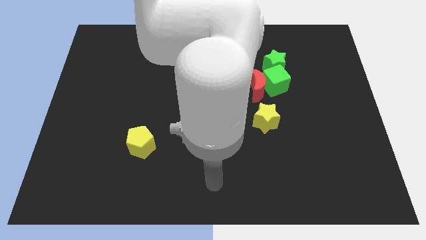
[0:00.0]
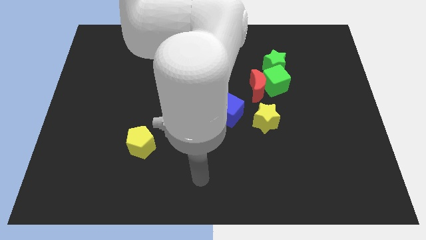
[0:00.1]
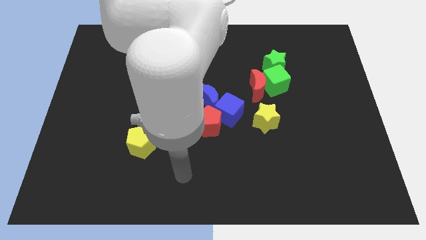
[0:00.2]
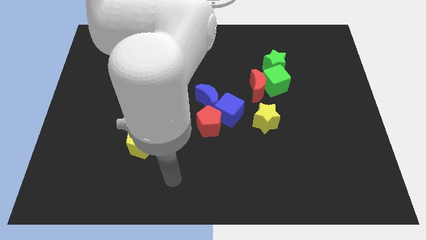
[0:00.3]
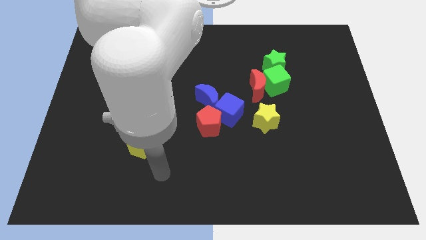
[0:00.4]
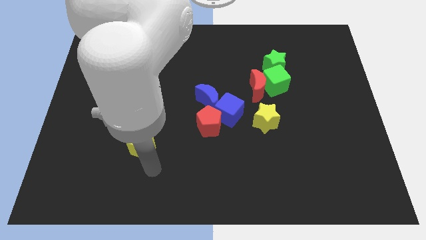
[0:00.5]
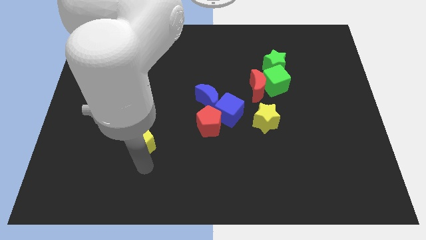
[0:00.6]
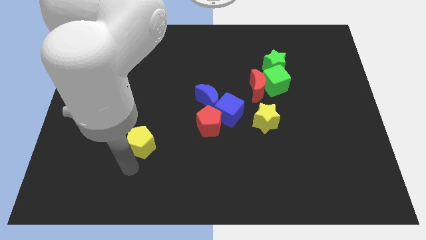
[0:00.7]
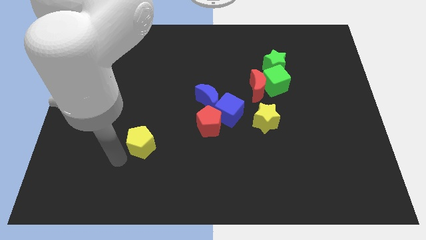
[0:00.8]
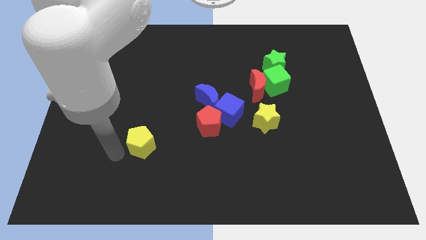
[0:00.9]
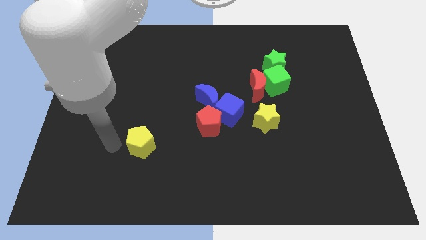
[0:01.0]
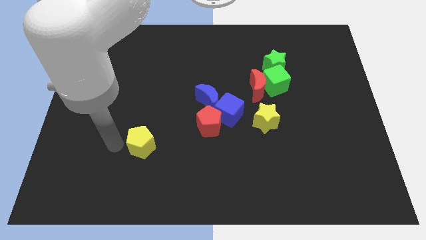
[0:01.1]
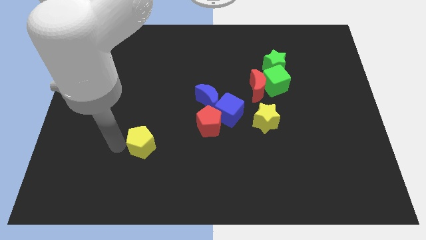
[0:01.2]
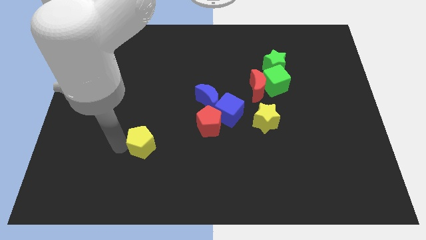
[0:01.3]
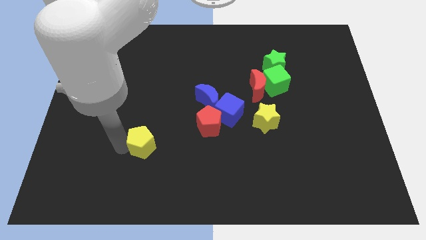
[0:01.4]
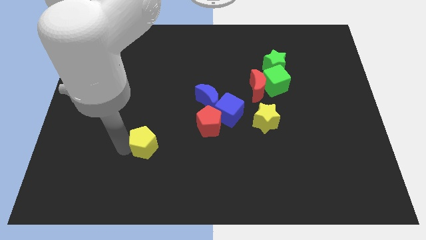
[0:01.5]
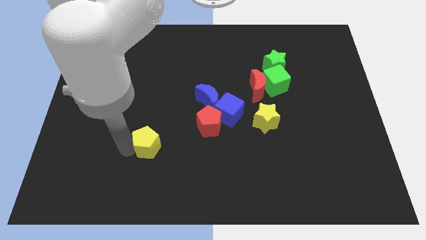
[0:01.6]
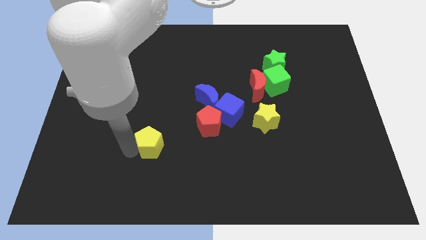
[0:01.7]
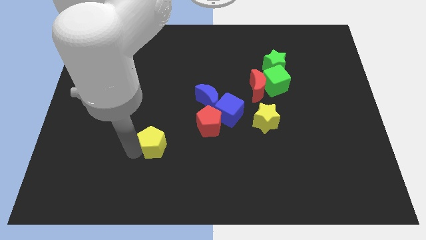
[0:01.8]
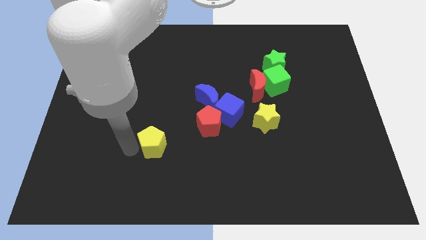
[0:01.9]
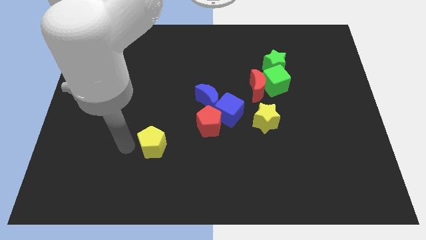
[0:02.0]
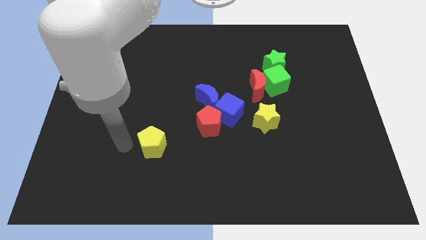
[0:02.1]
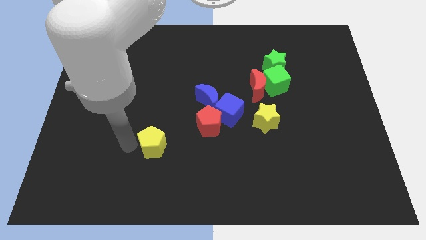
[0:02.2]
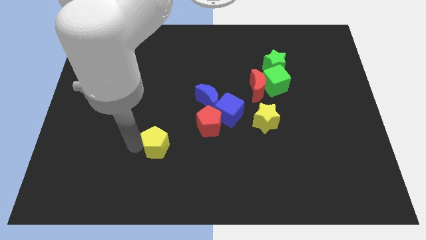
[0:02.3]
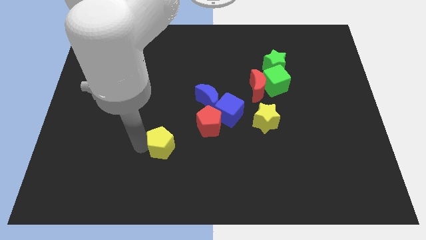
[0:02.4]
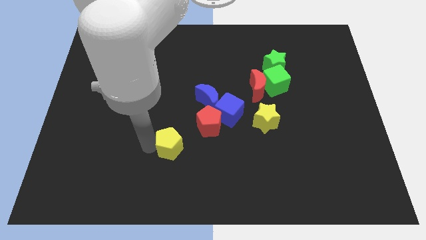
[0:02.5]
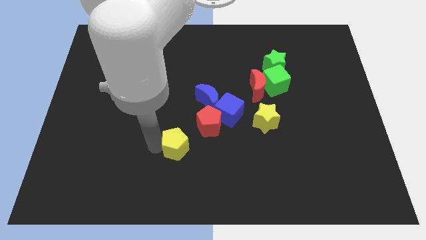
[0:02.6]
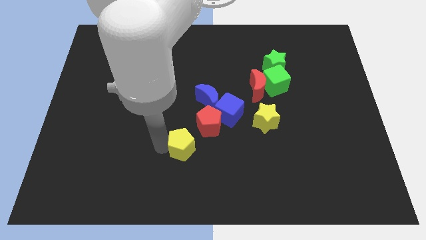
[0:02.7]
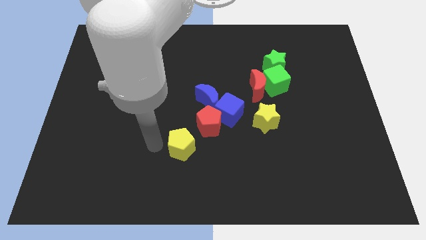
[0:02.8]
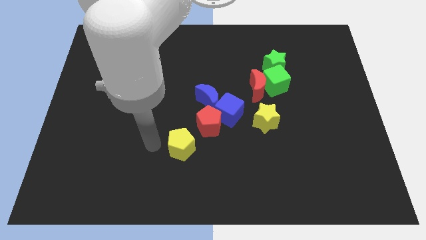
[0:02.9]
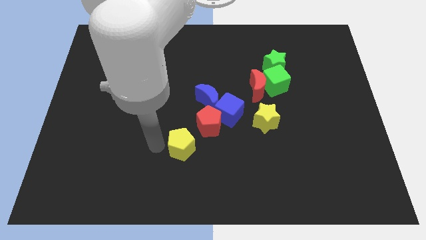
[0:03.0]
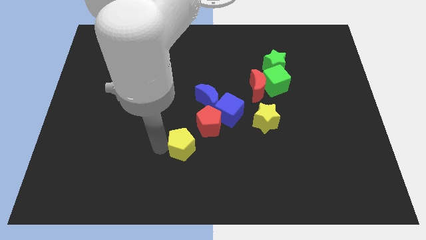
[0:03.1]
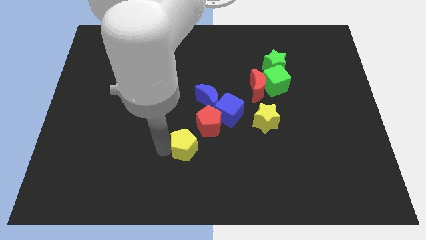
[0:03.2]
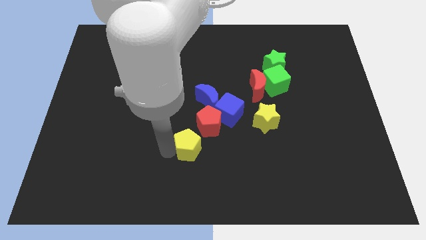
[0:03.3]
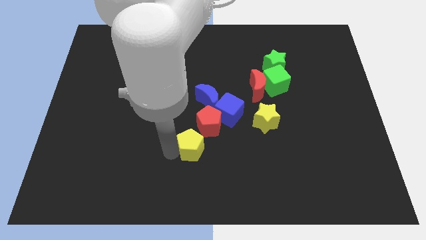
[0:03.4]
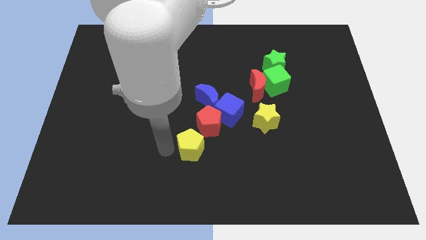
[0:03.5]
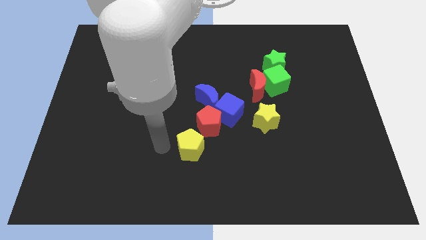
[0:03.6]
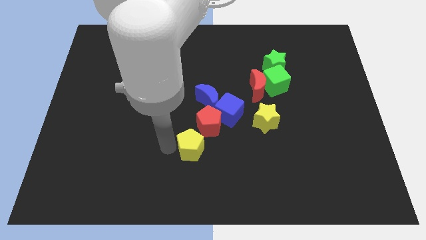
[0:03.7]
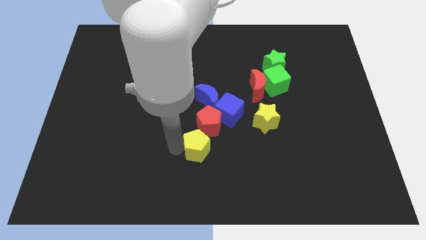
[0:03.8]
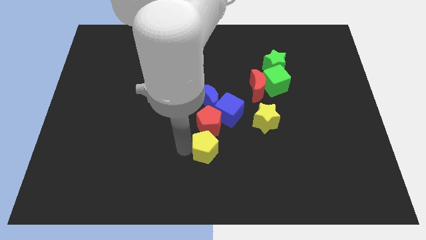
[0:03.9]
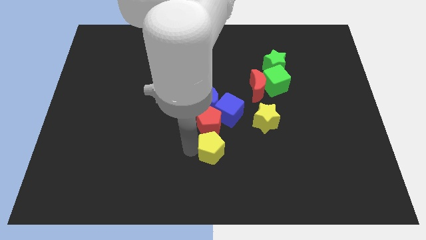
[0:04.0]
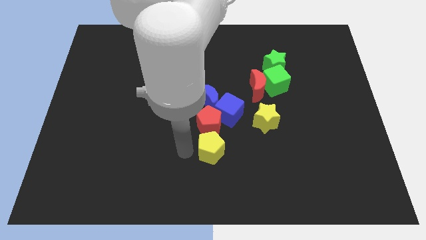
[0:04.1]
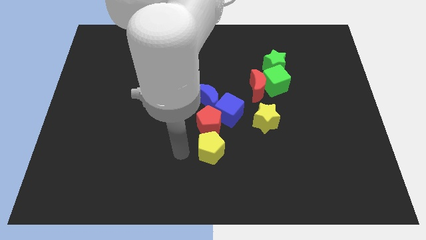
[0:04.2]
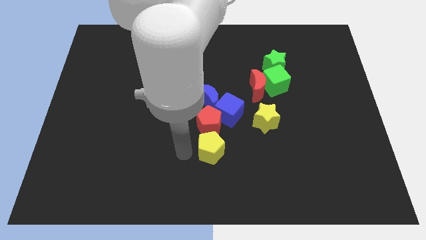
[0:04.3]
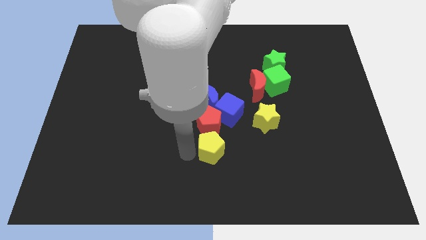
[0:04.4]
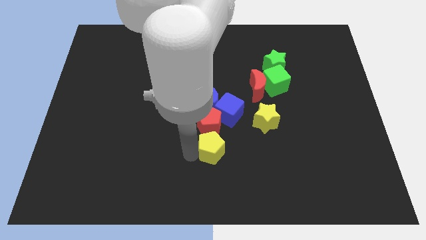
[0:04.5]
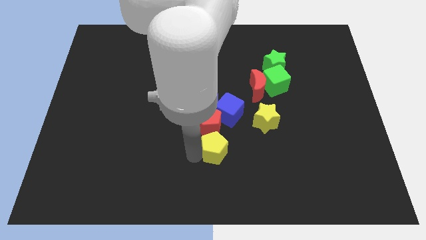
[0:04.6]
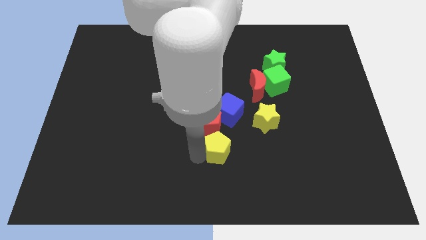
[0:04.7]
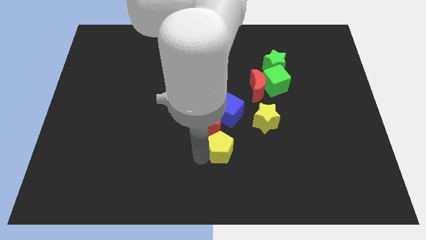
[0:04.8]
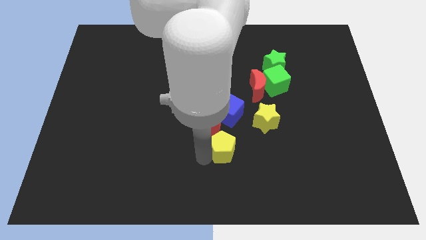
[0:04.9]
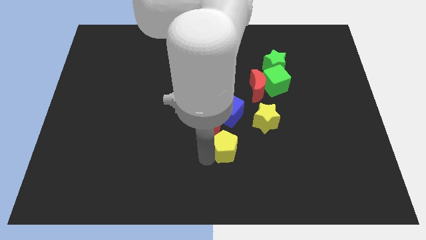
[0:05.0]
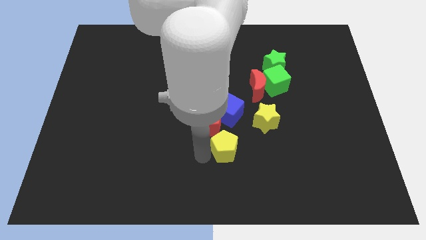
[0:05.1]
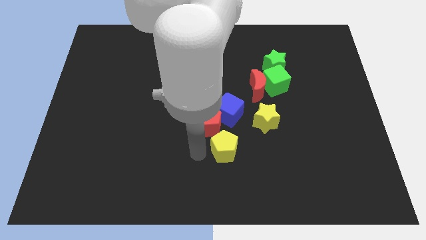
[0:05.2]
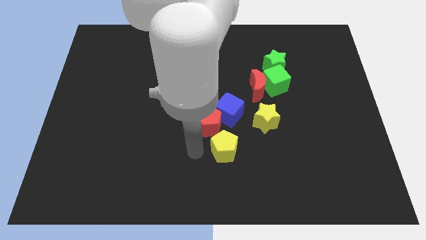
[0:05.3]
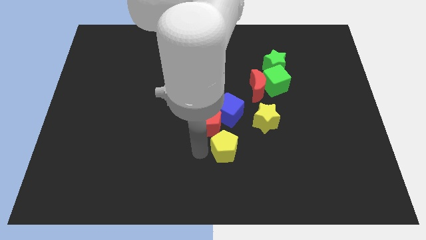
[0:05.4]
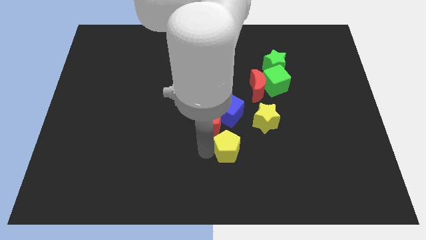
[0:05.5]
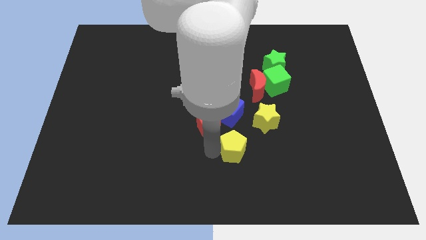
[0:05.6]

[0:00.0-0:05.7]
move the yellow pentagon right

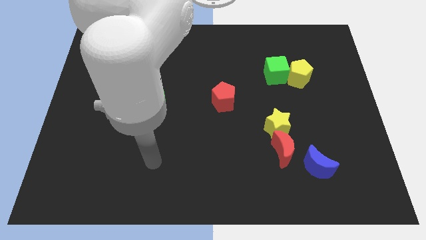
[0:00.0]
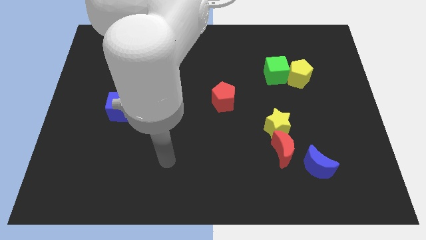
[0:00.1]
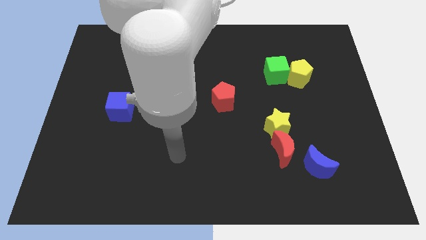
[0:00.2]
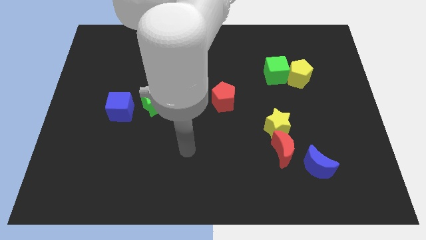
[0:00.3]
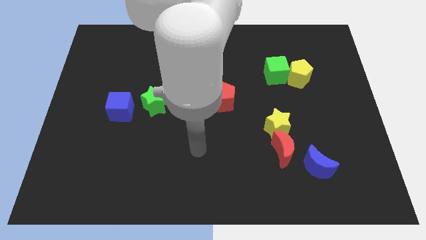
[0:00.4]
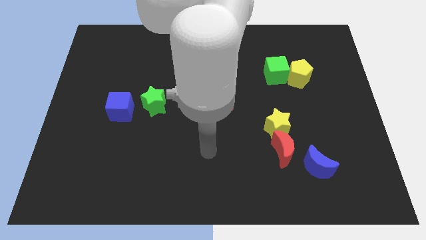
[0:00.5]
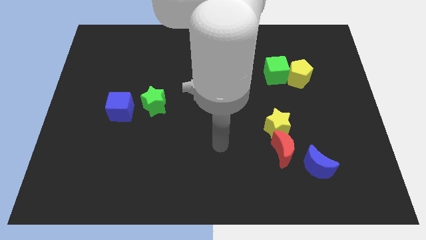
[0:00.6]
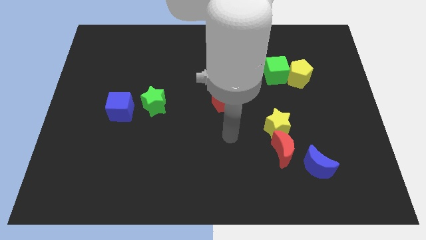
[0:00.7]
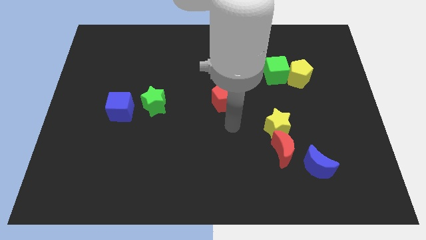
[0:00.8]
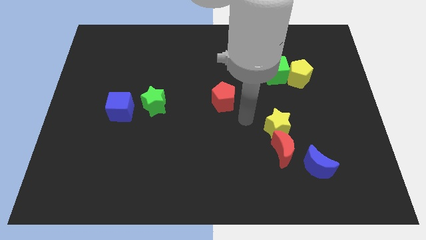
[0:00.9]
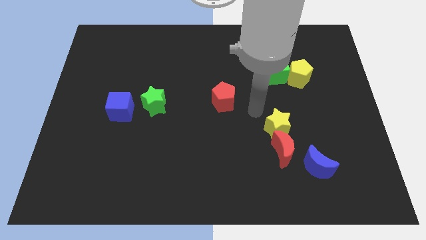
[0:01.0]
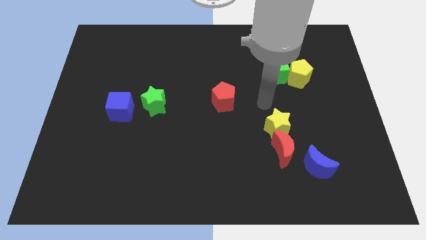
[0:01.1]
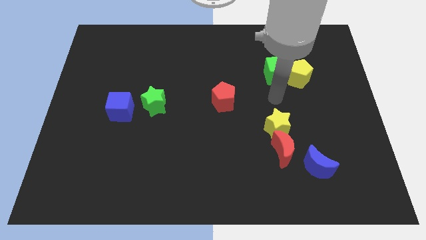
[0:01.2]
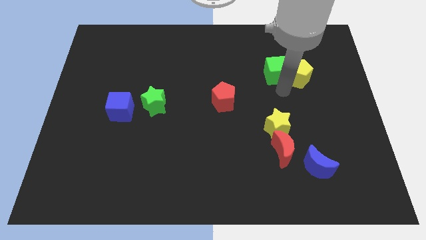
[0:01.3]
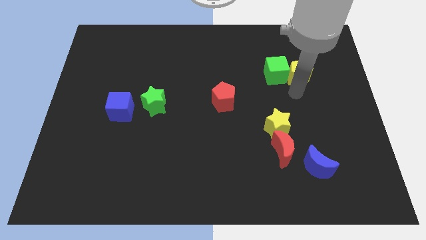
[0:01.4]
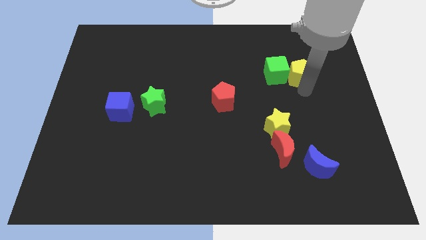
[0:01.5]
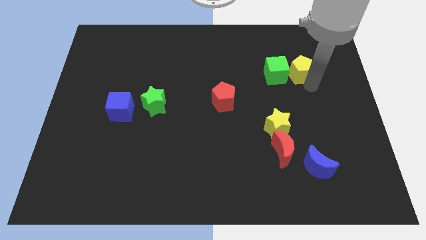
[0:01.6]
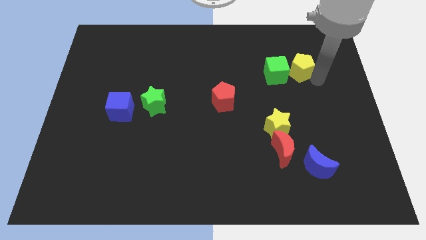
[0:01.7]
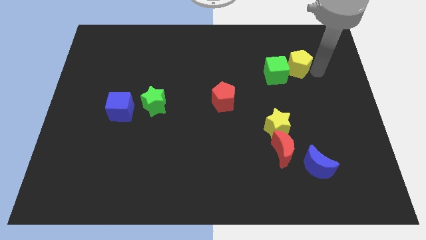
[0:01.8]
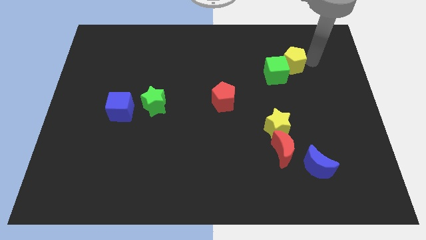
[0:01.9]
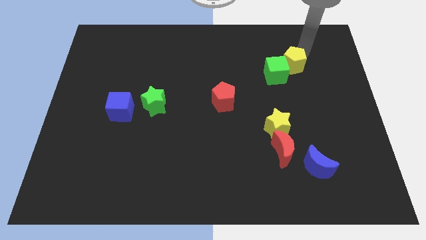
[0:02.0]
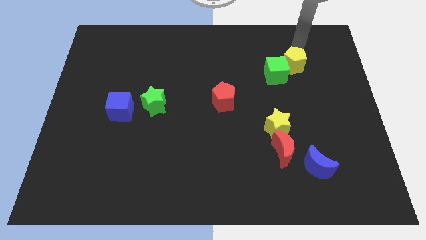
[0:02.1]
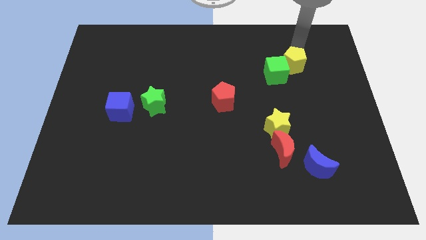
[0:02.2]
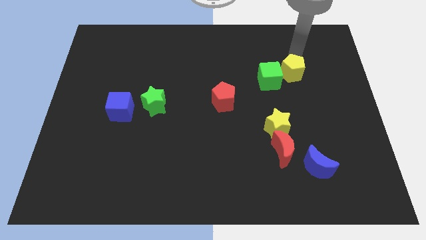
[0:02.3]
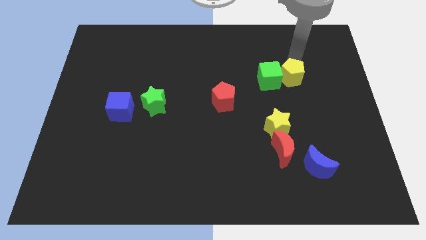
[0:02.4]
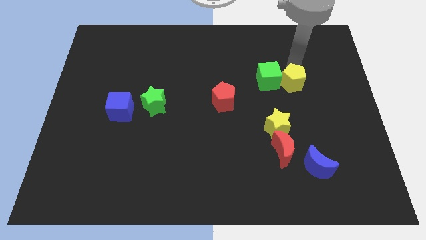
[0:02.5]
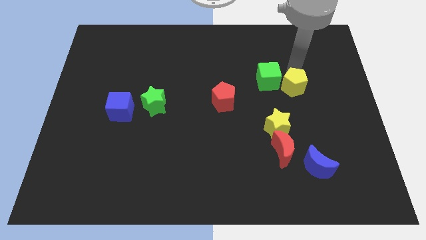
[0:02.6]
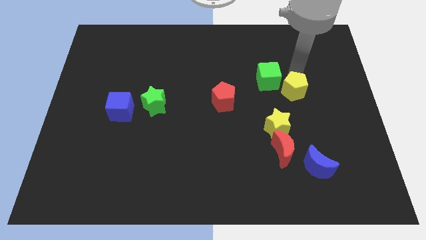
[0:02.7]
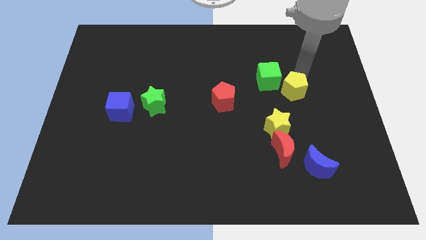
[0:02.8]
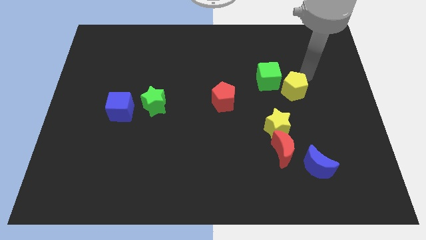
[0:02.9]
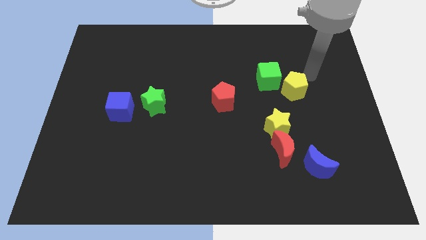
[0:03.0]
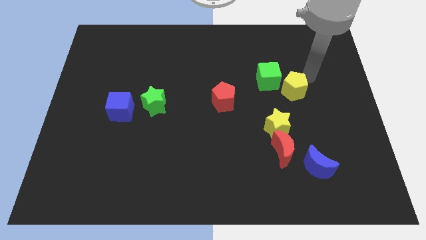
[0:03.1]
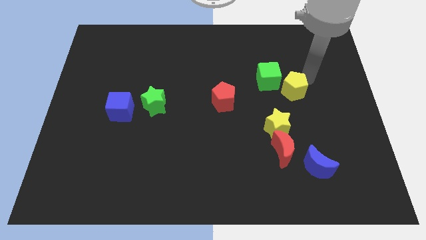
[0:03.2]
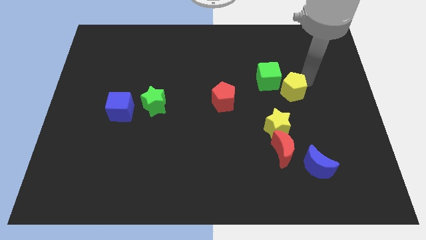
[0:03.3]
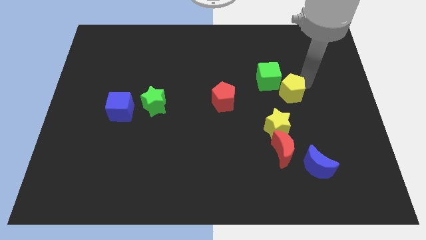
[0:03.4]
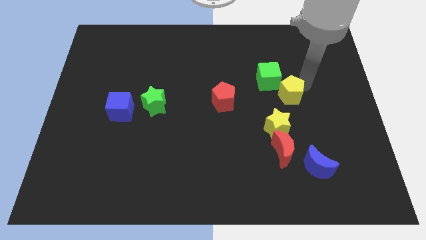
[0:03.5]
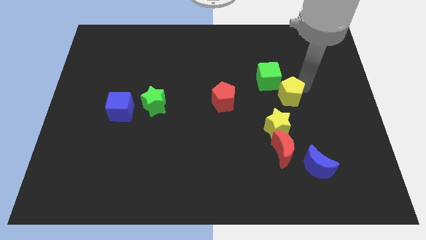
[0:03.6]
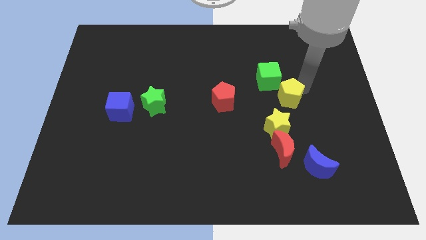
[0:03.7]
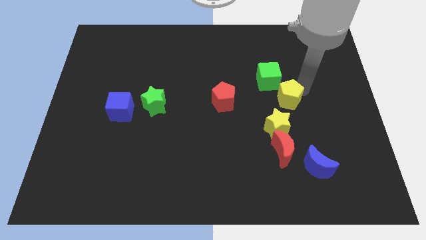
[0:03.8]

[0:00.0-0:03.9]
slide the yellow pentagon diagonally downwards and to the left somewhat
